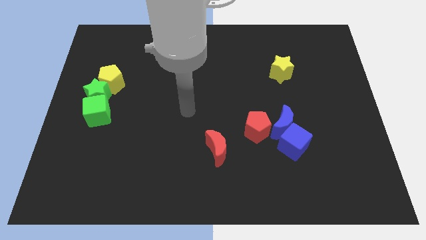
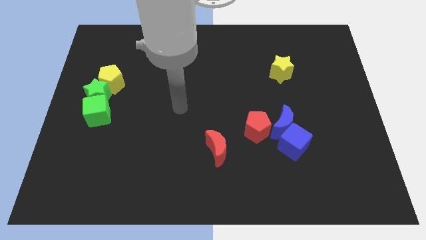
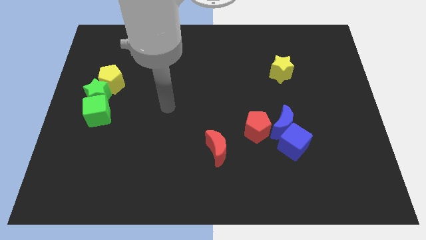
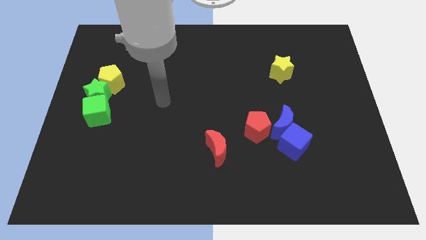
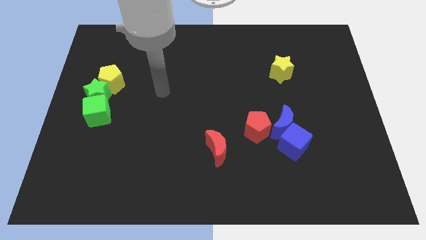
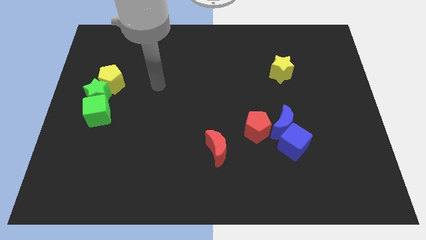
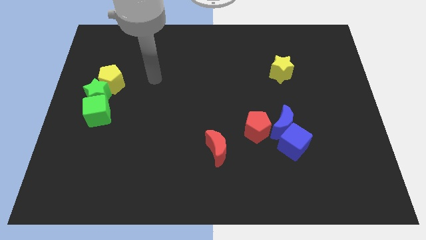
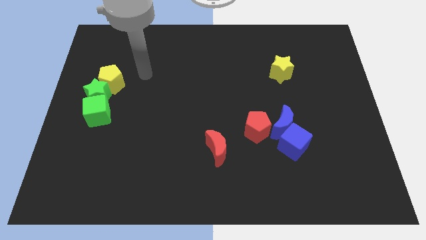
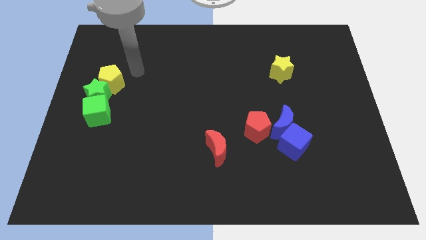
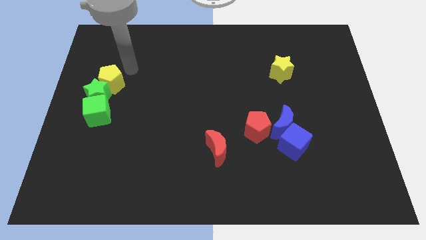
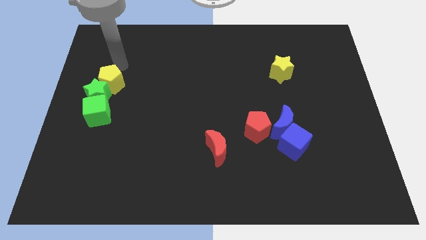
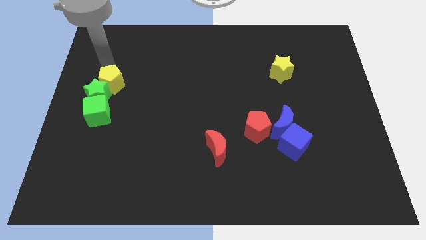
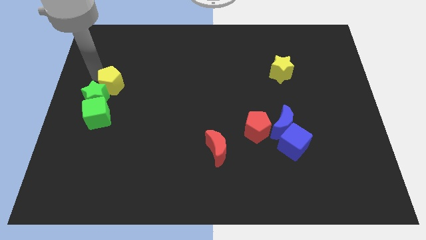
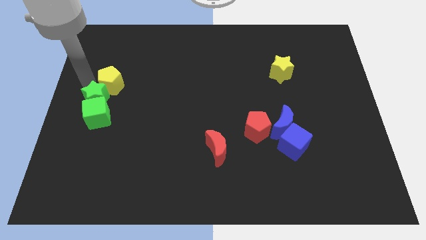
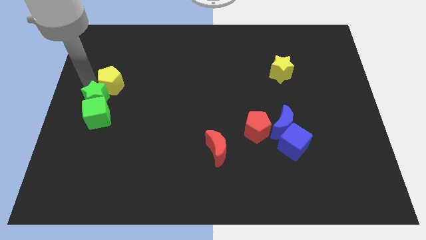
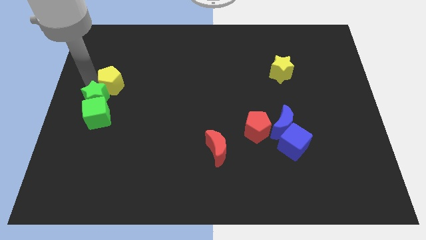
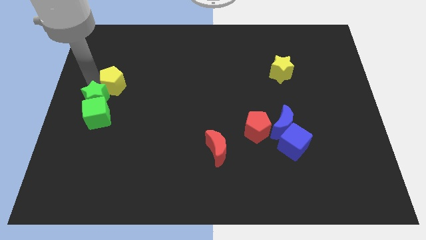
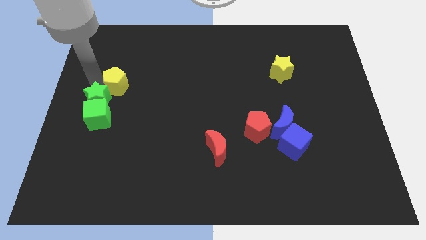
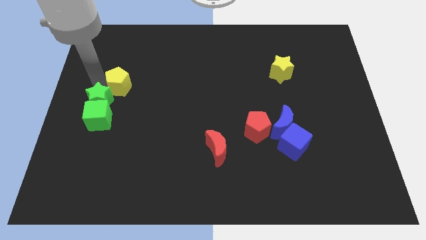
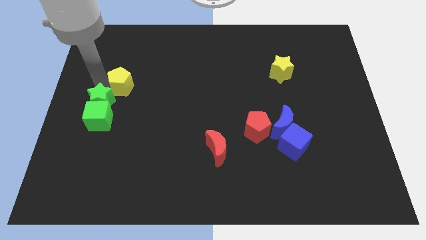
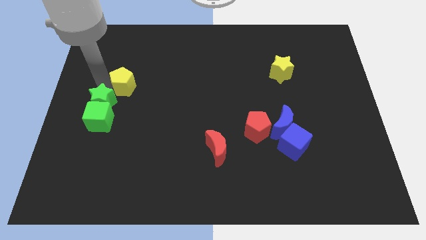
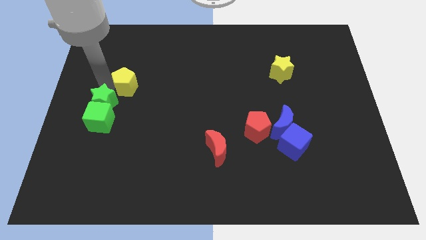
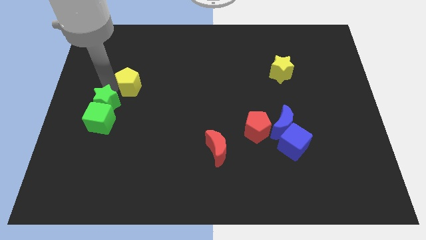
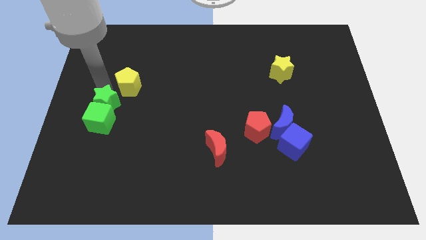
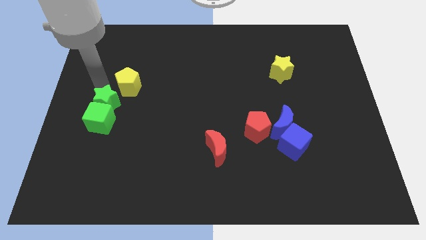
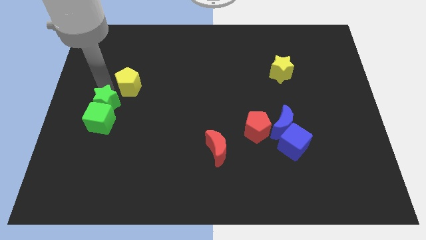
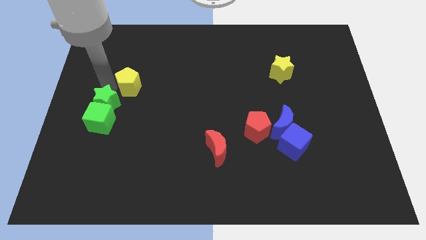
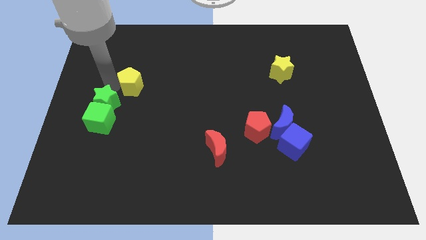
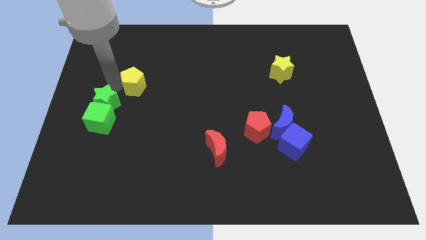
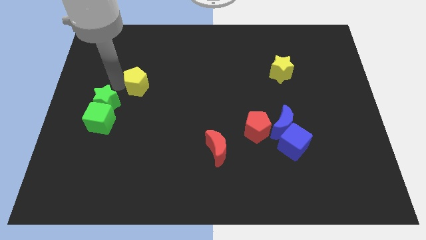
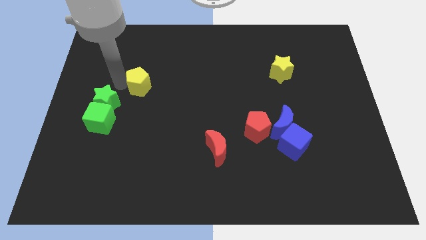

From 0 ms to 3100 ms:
push the yellow pentagon right a little

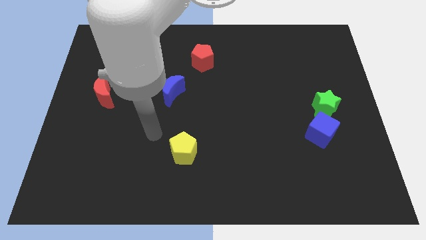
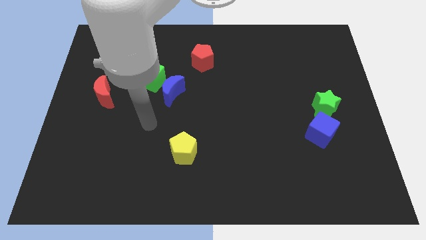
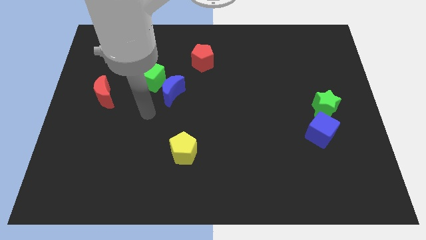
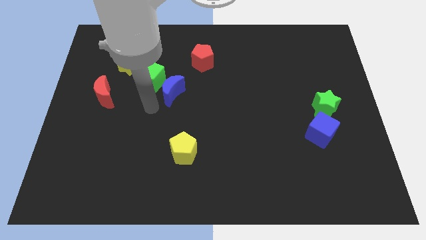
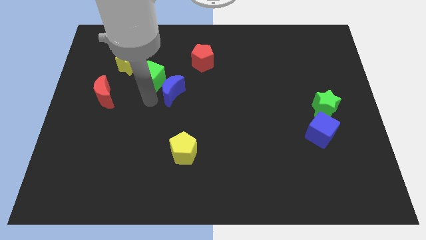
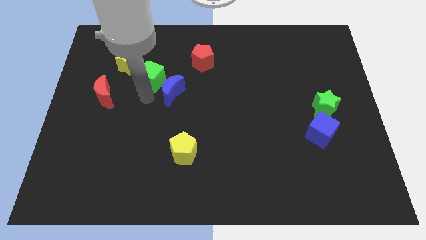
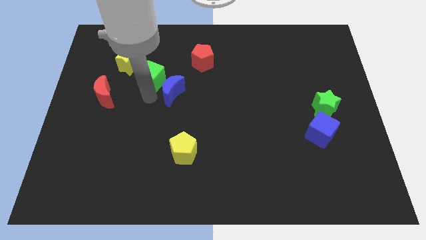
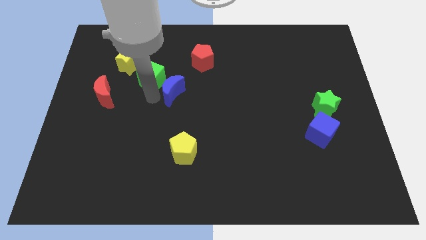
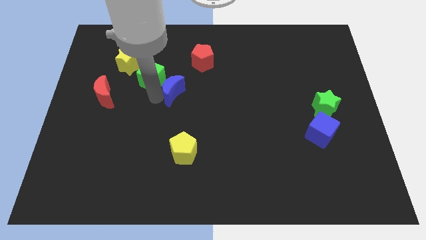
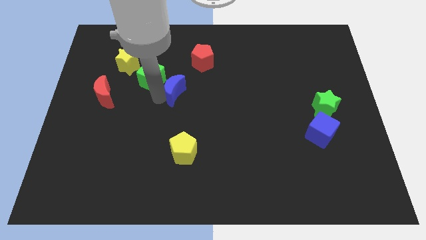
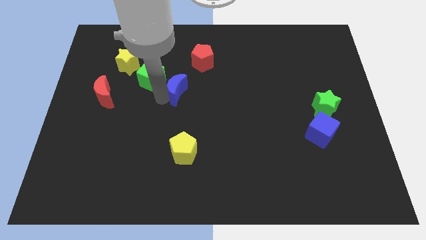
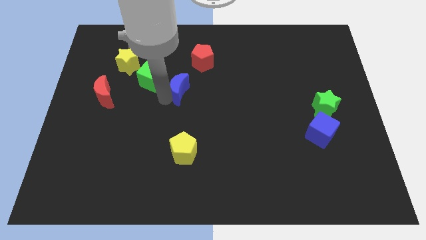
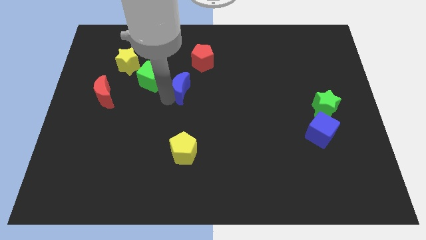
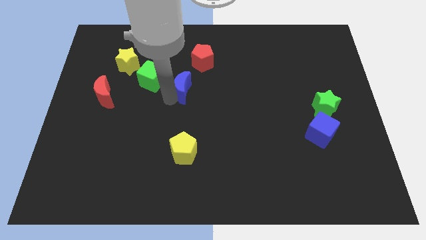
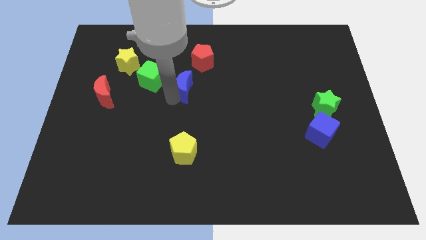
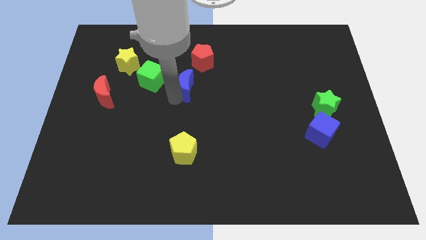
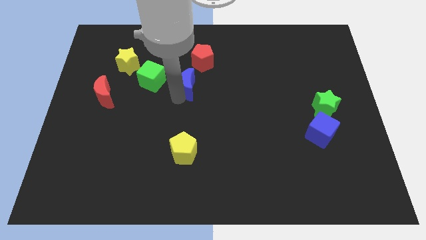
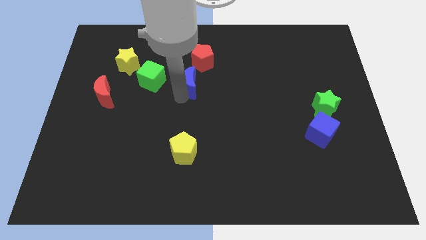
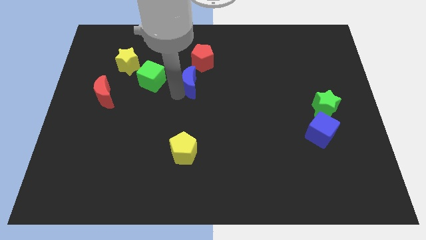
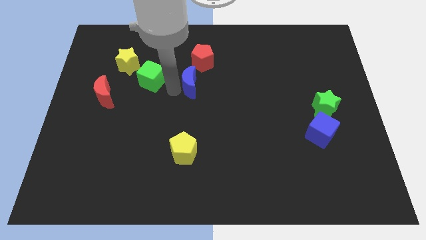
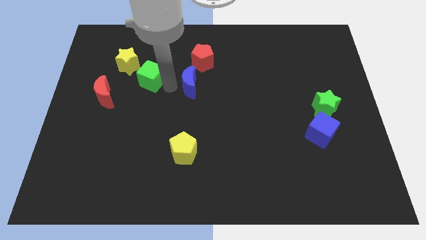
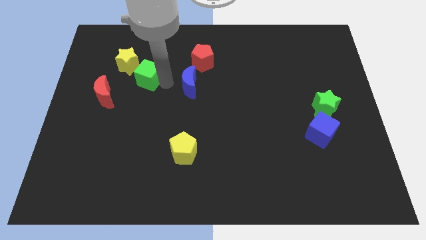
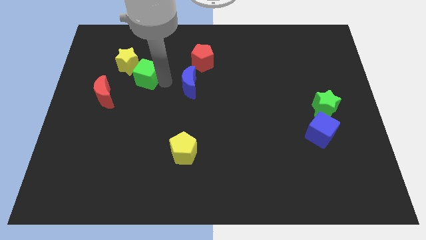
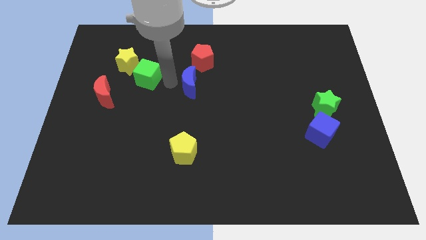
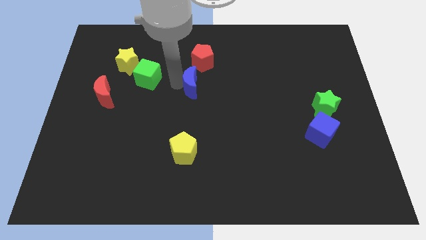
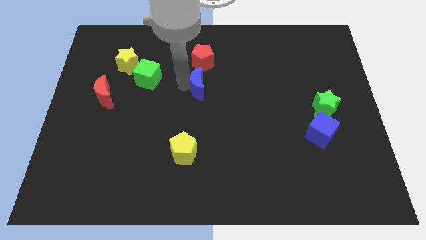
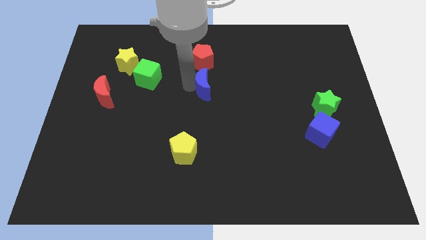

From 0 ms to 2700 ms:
slide the blue moon right slightly

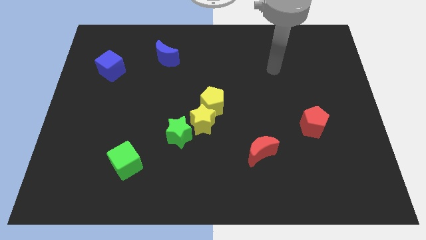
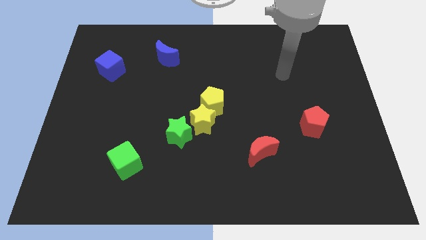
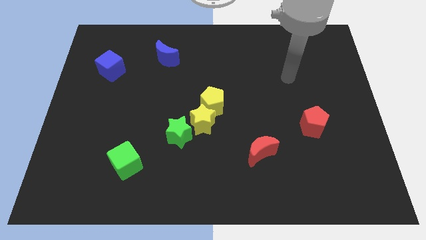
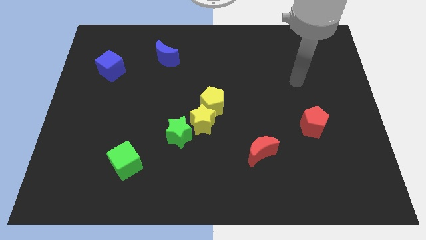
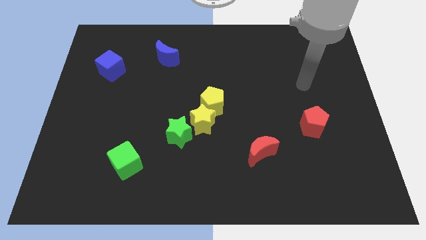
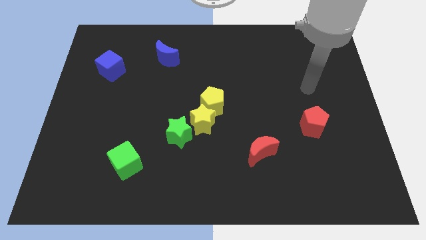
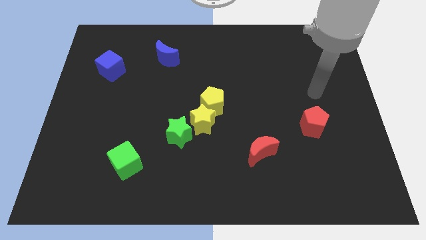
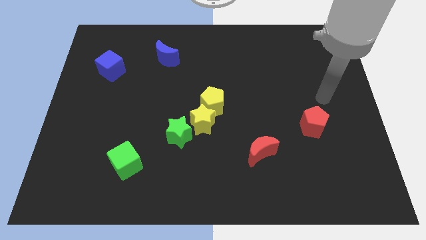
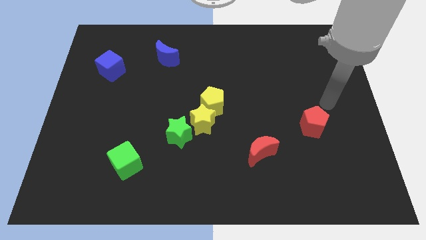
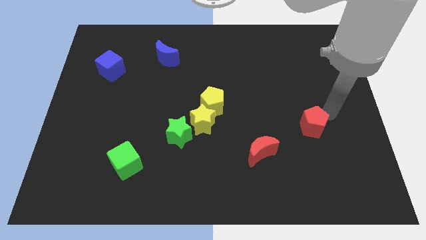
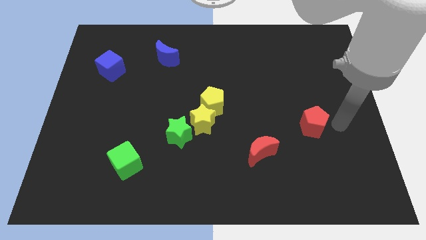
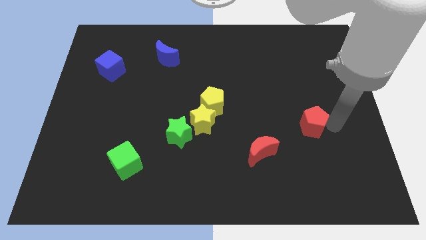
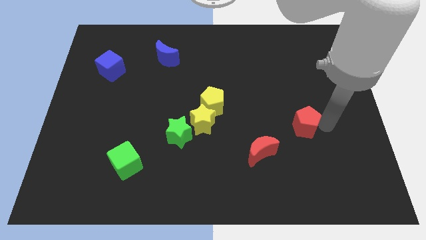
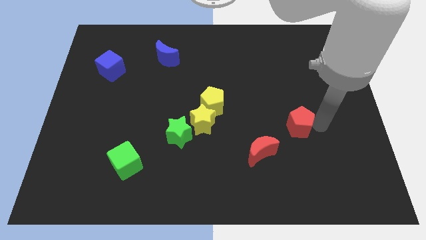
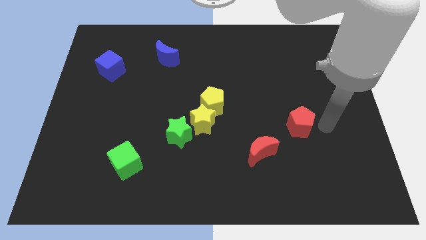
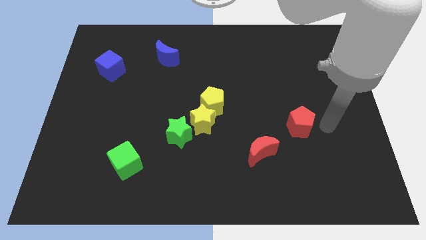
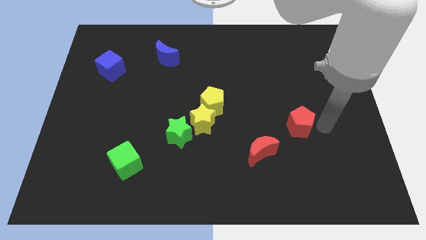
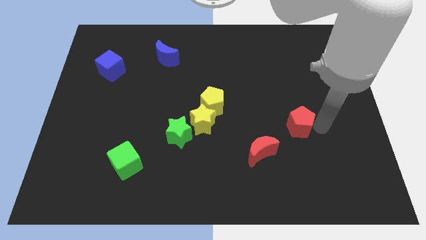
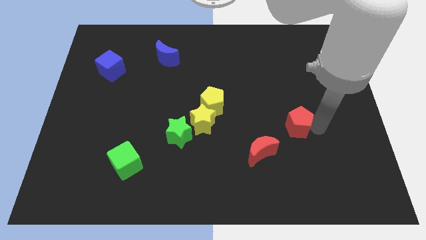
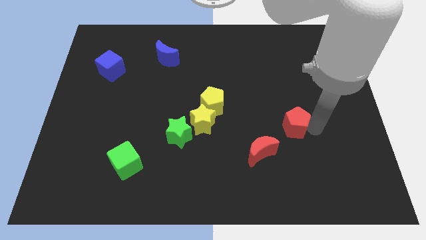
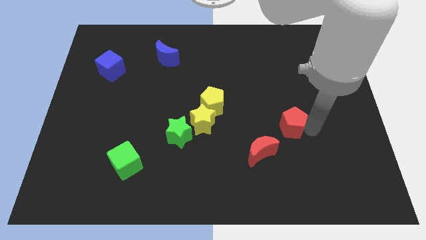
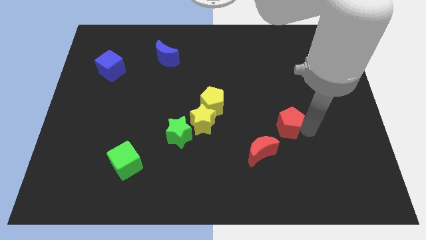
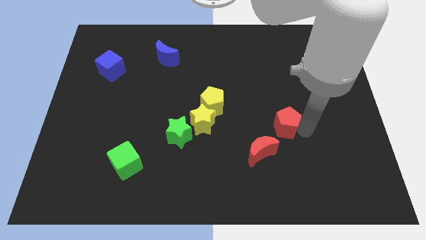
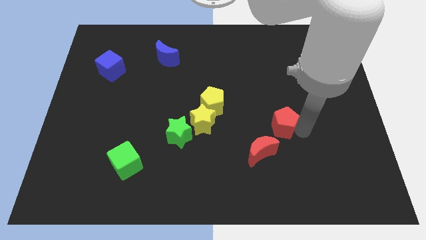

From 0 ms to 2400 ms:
slide the red pentagon to the left a little bit

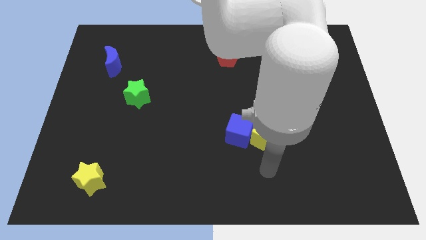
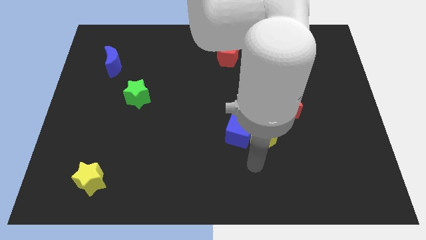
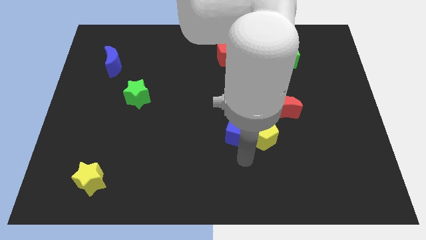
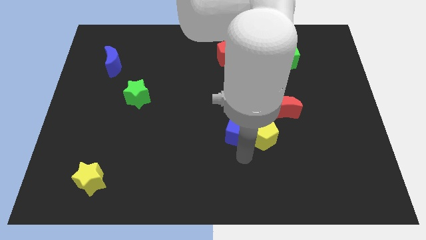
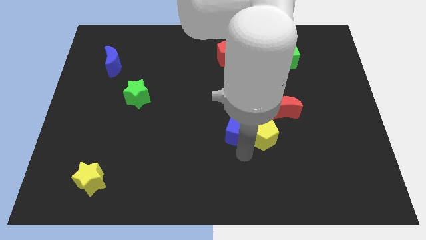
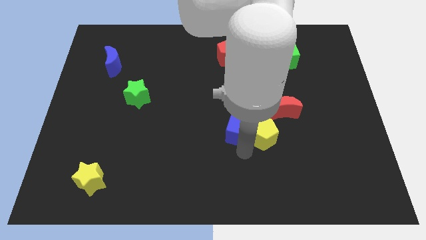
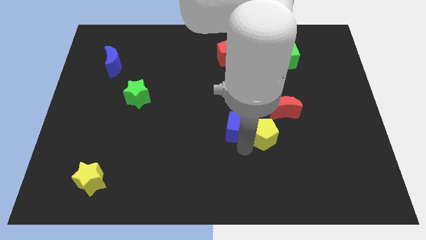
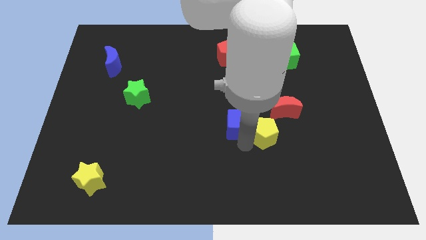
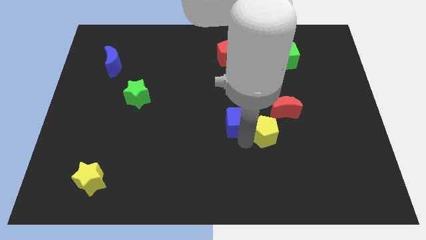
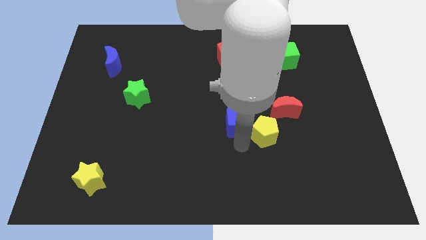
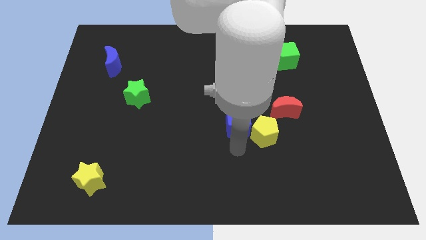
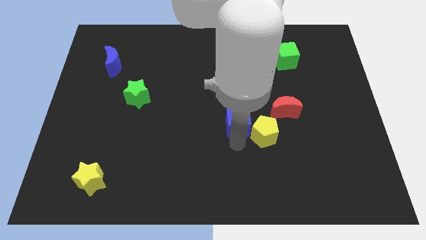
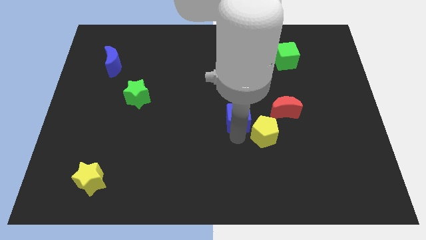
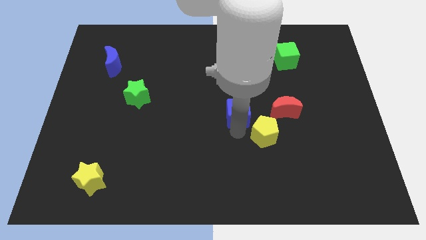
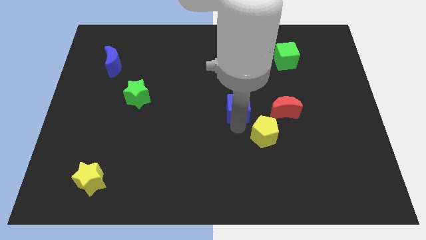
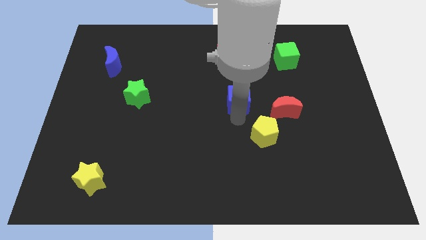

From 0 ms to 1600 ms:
slightly slide the blue cube up
